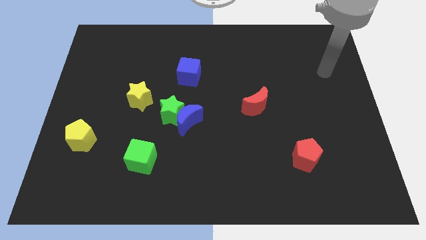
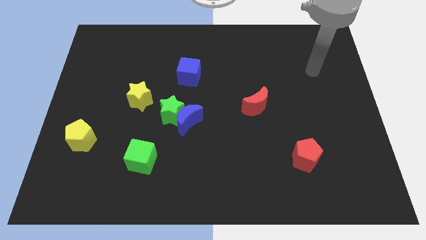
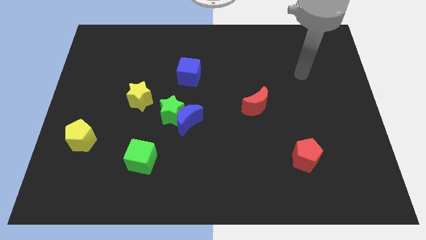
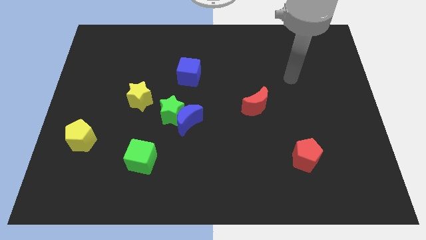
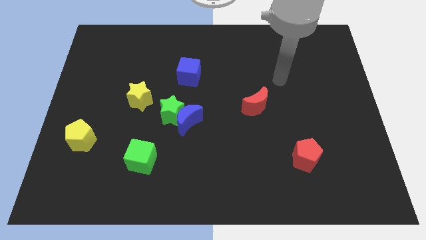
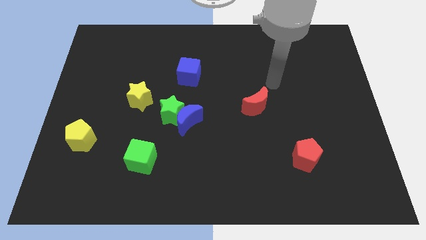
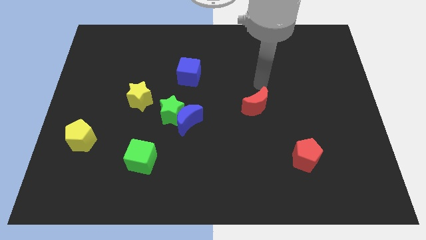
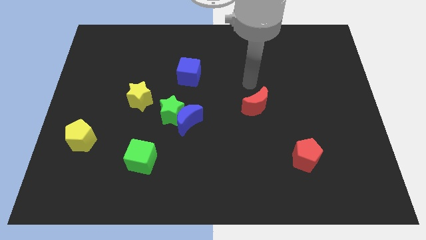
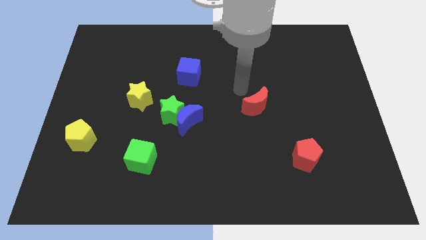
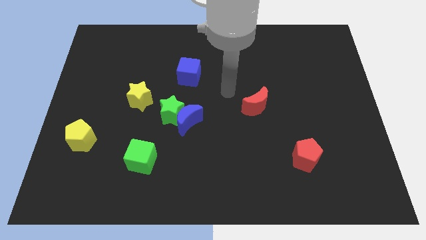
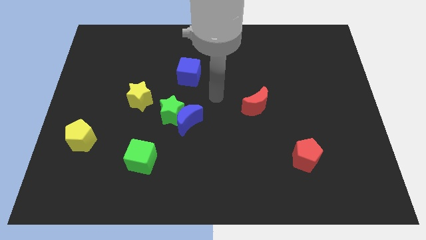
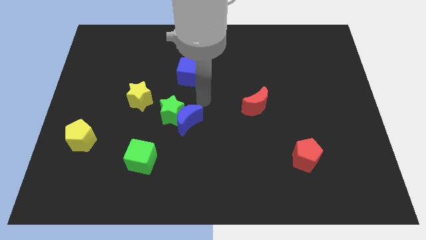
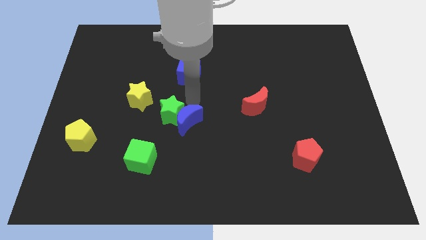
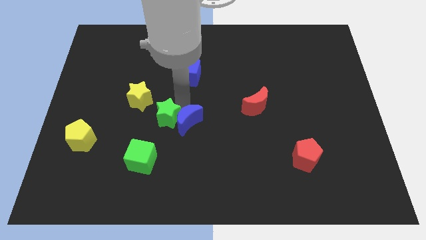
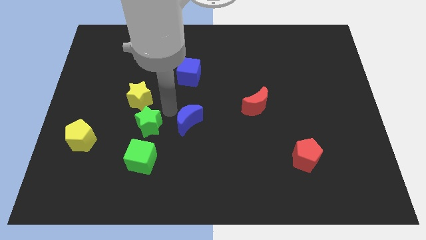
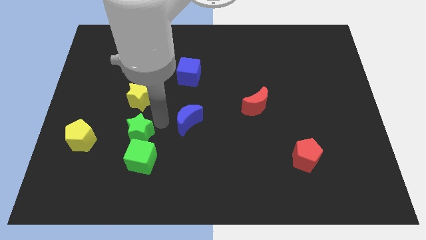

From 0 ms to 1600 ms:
separate the blue moon from the green star

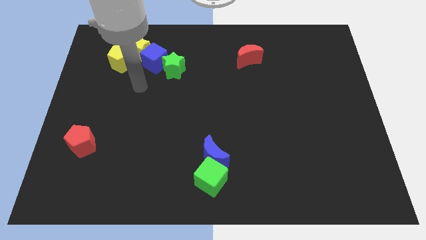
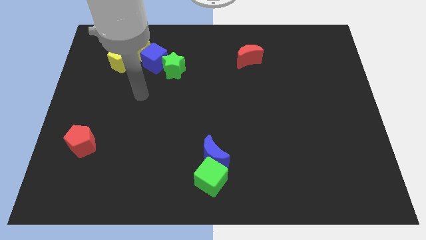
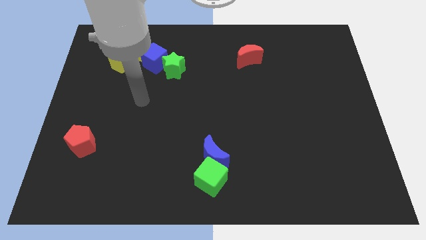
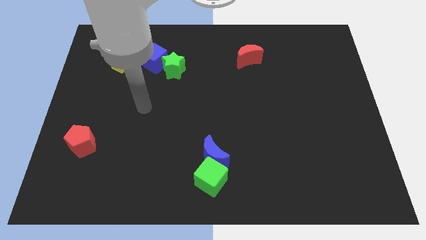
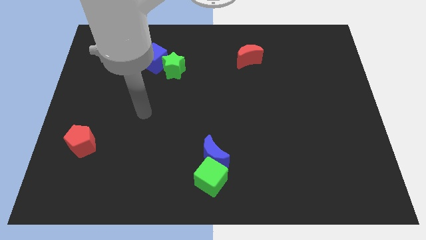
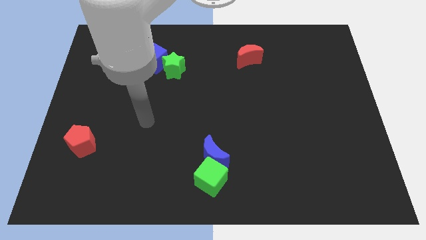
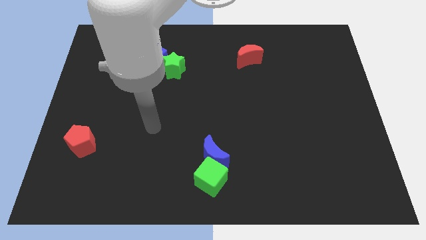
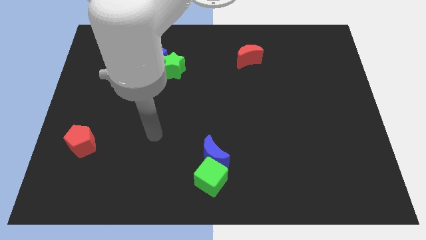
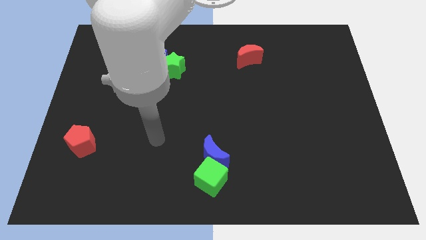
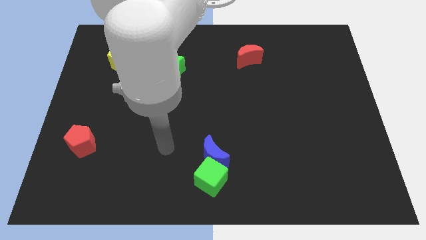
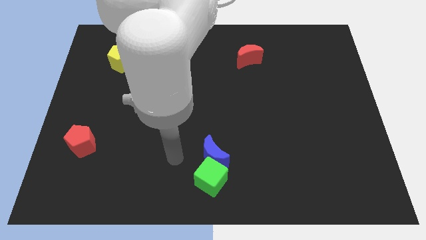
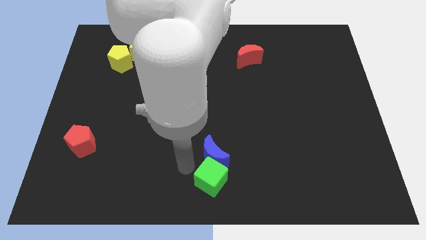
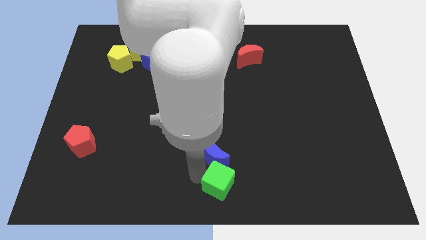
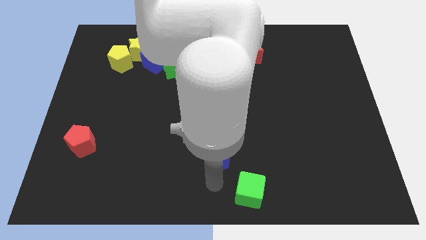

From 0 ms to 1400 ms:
separate the blue moon from the green cube

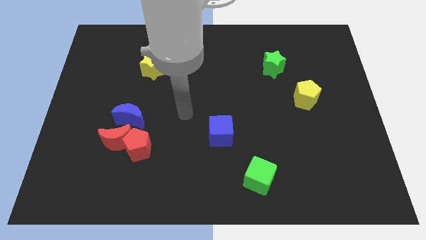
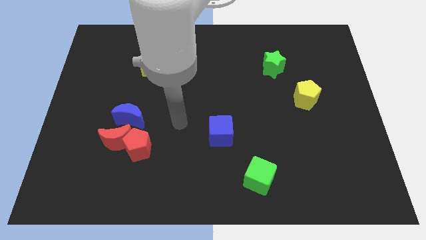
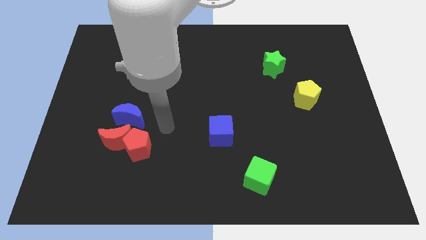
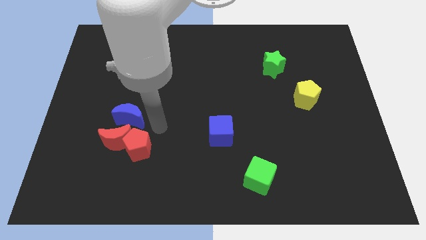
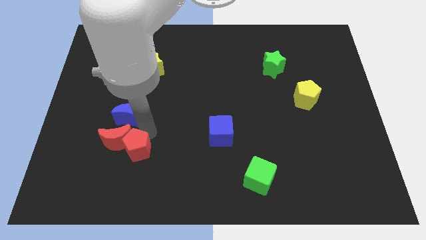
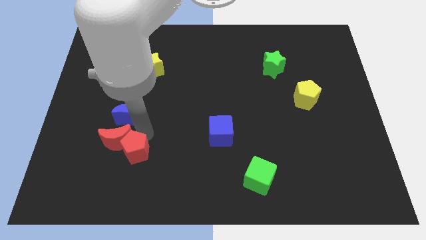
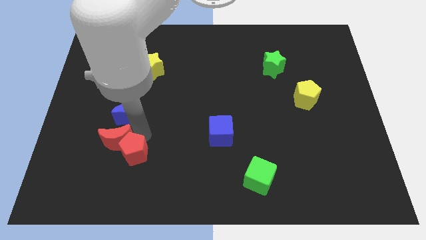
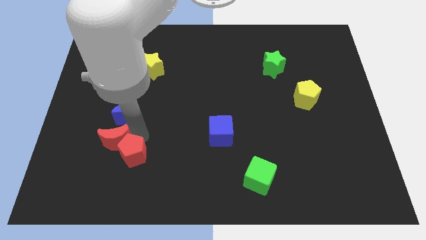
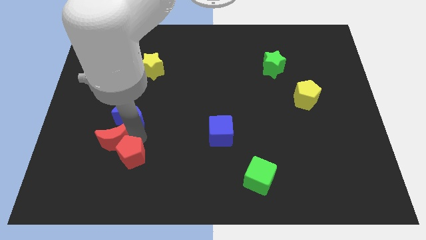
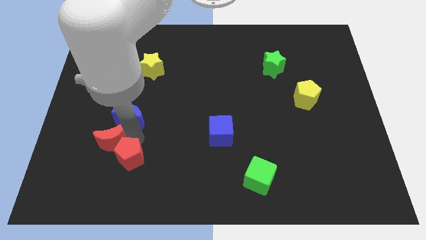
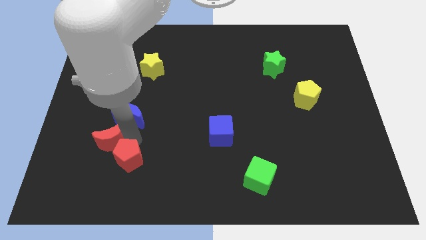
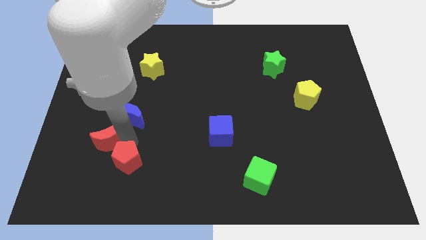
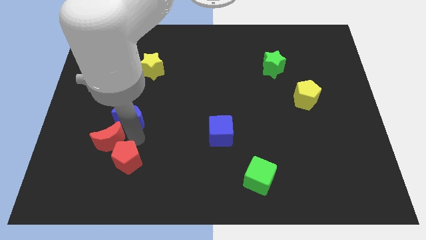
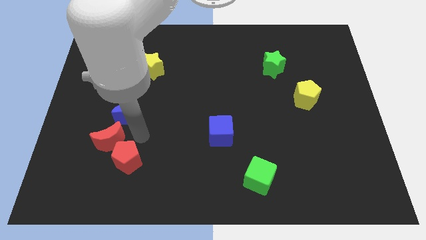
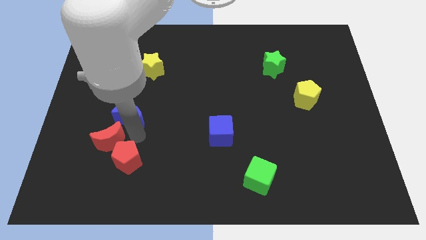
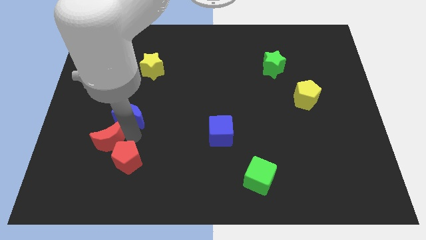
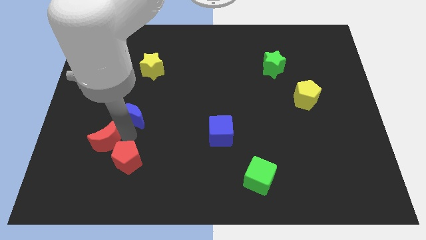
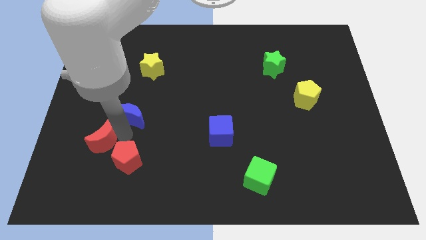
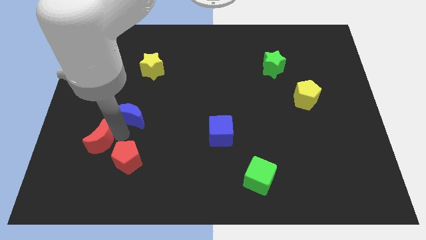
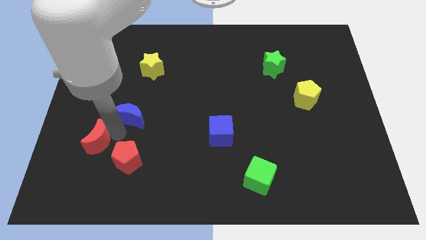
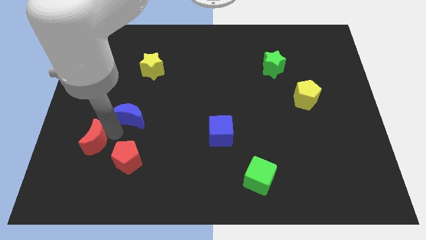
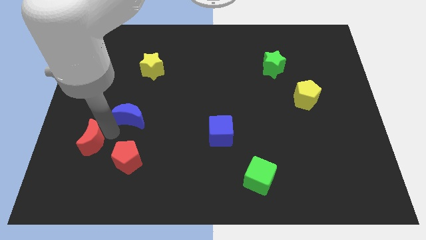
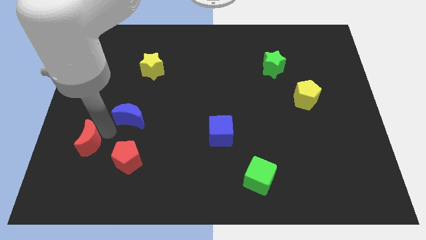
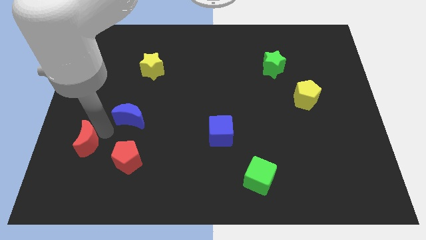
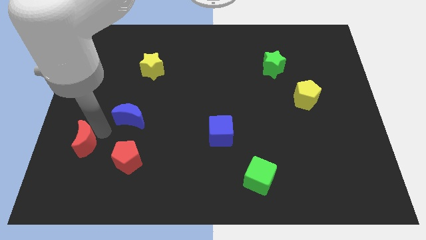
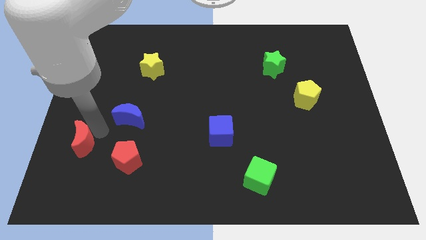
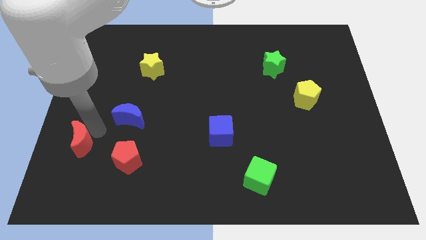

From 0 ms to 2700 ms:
pull the red moon apart from the red pentagon and blue moon

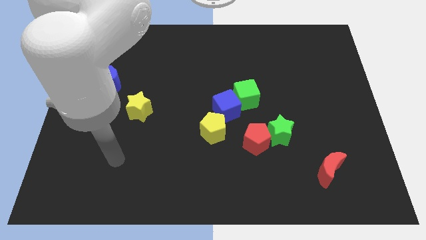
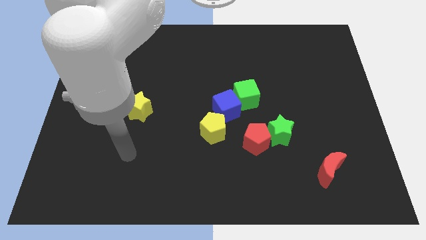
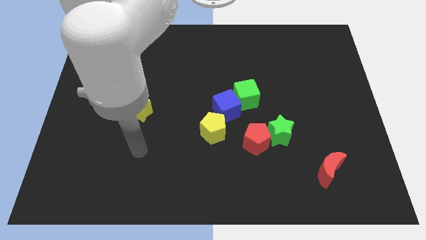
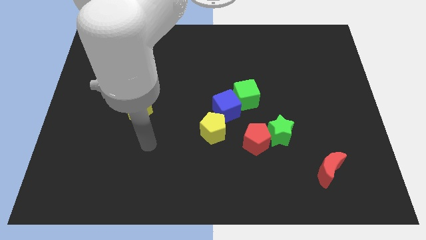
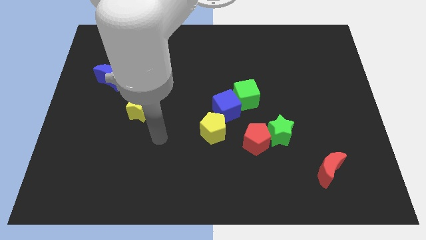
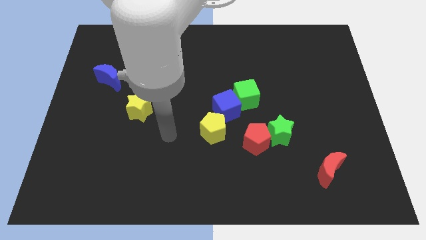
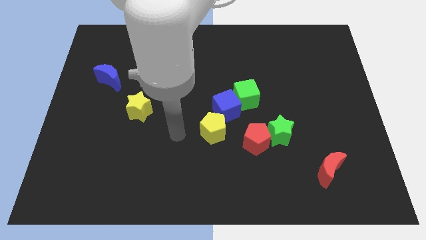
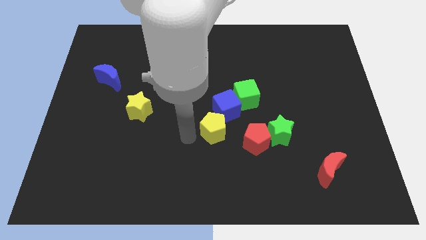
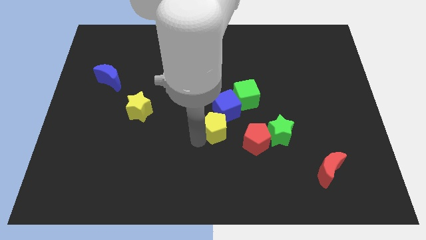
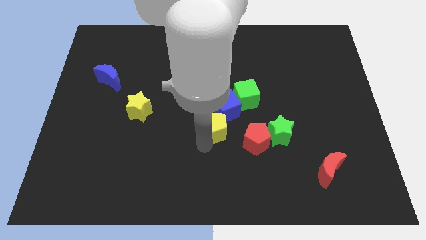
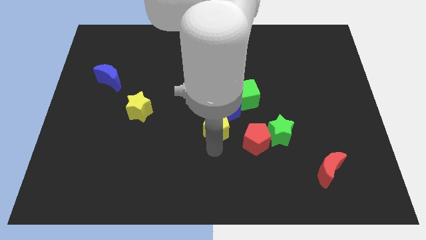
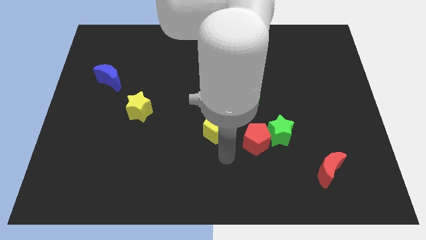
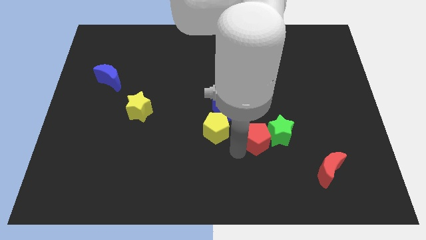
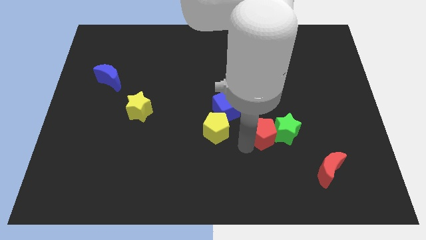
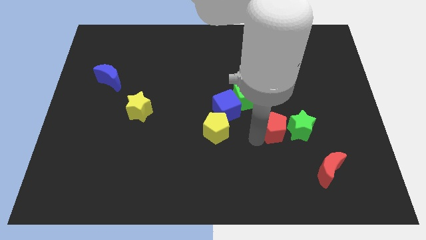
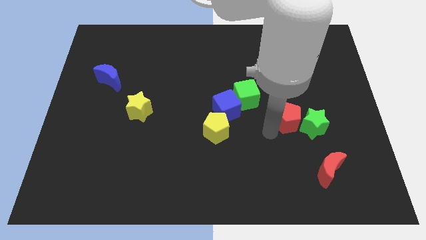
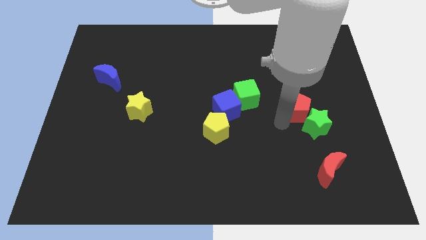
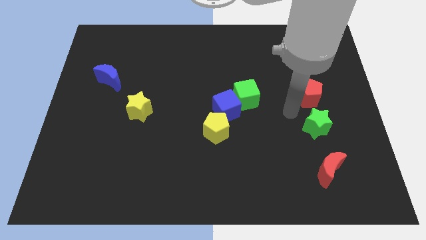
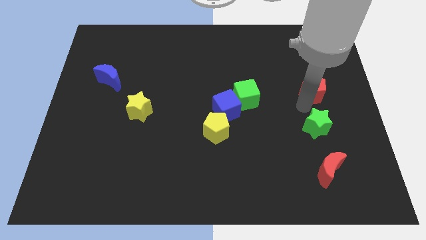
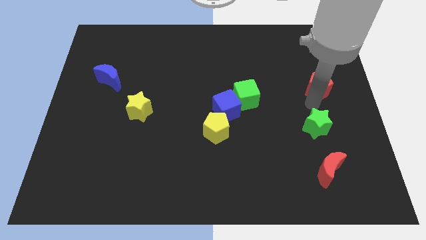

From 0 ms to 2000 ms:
move the green star away from the red pentagon

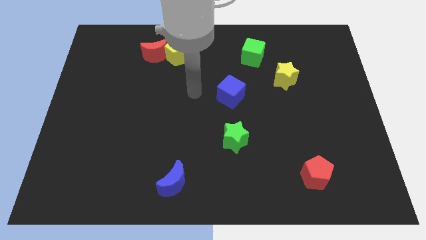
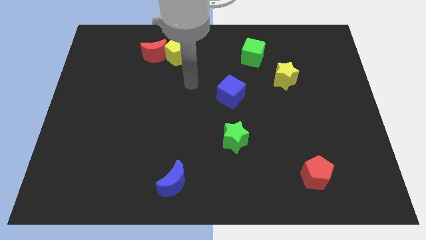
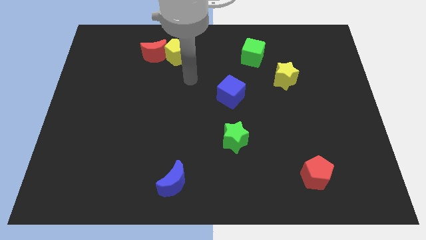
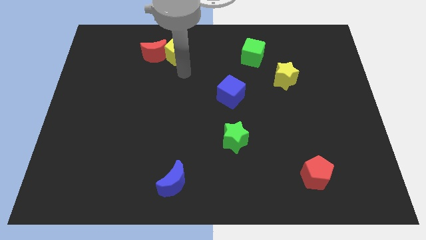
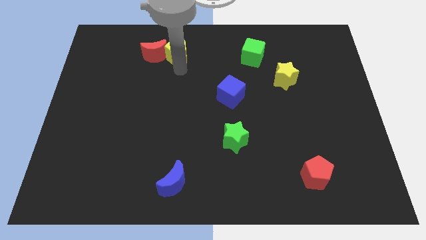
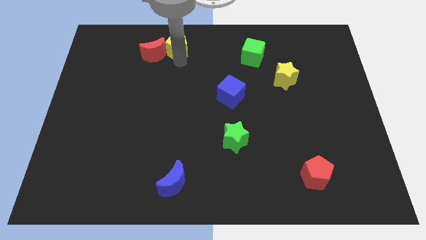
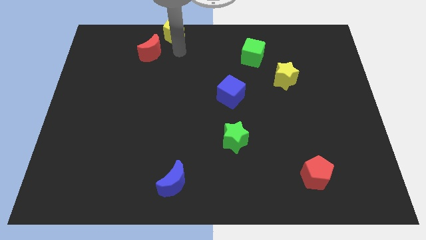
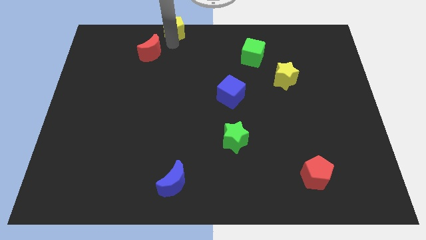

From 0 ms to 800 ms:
pull the red moon apart from the yellow pentagon

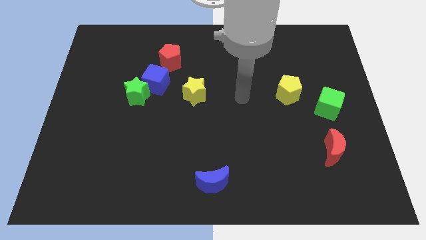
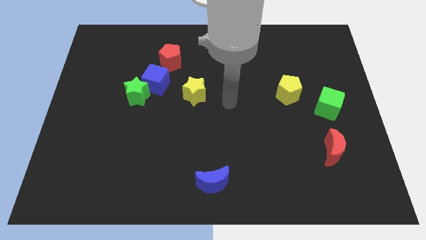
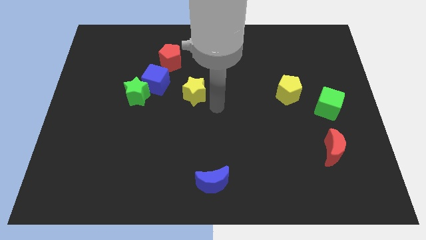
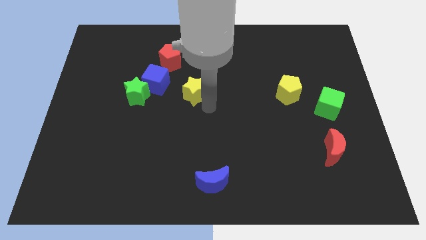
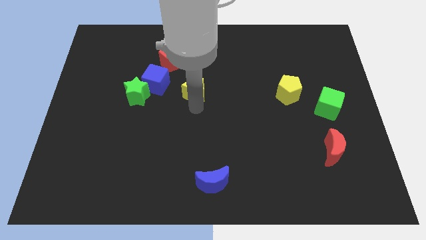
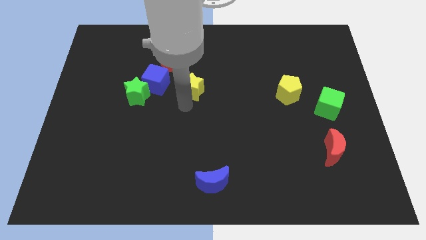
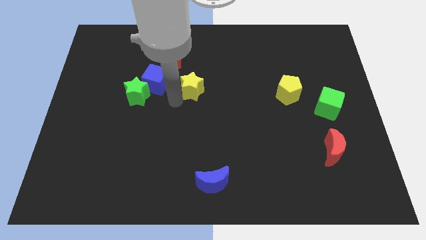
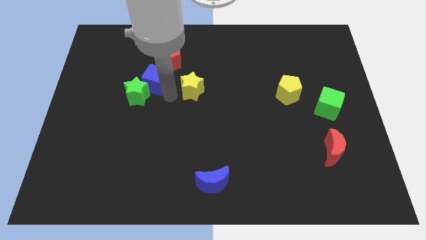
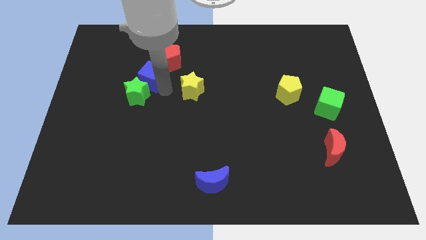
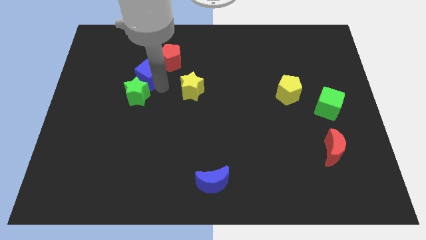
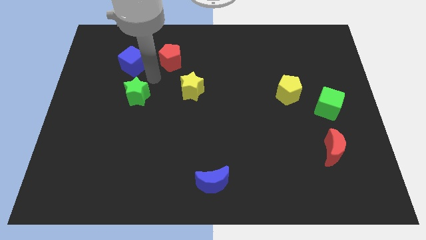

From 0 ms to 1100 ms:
pull the green star apart from the blue cube
